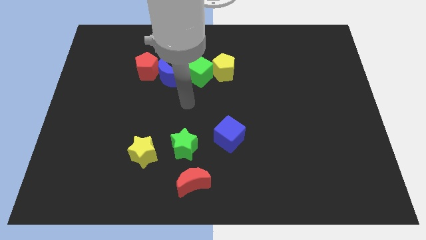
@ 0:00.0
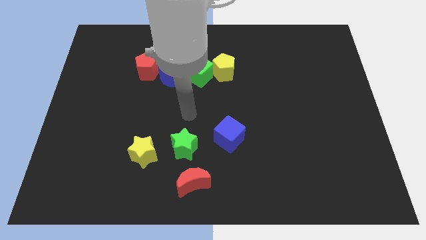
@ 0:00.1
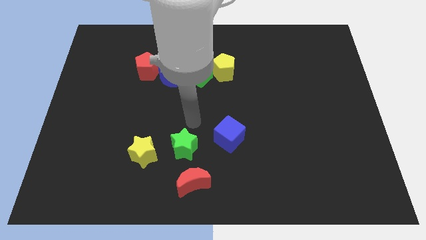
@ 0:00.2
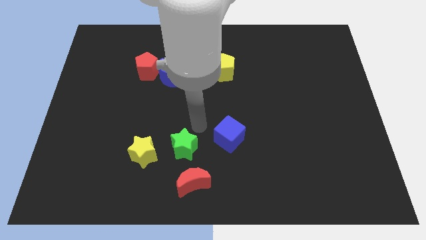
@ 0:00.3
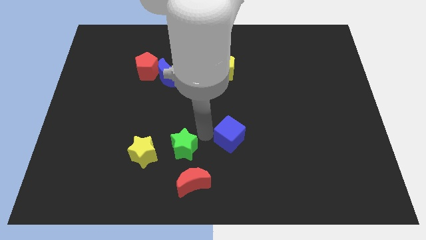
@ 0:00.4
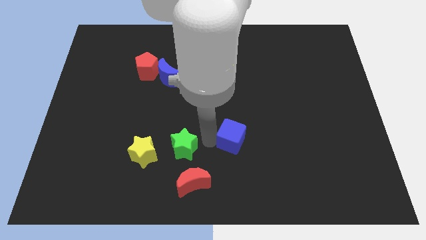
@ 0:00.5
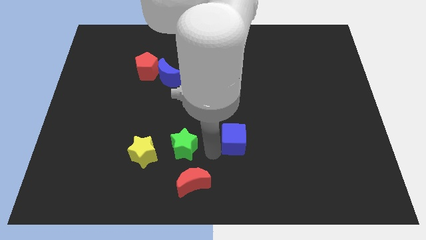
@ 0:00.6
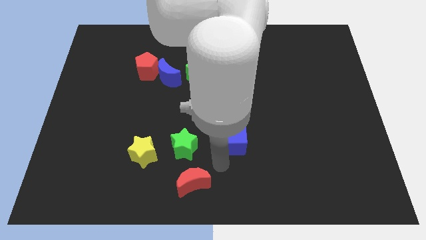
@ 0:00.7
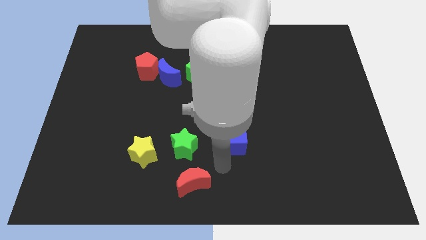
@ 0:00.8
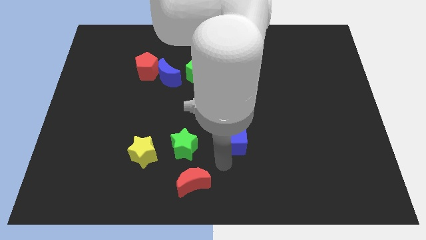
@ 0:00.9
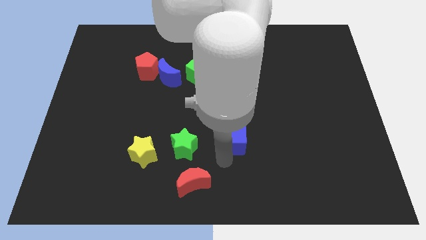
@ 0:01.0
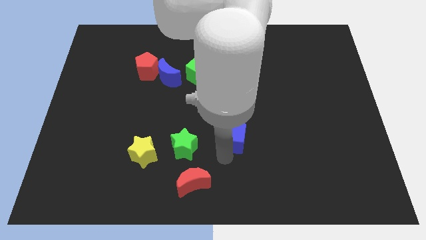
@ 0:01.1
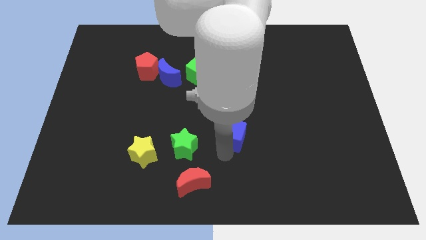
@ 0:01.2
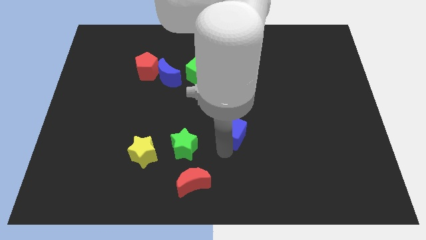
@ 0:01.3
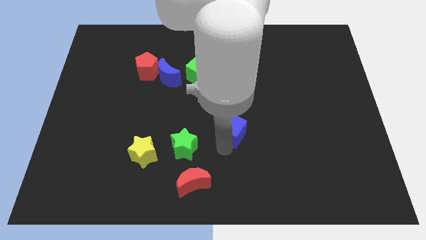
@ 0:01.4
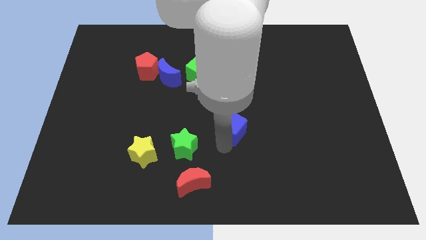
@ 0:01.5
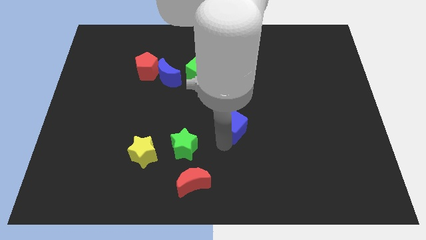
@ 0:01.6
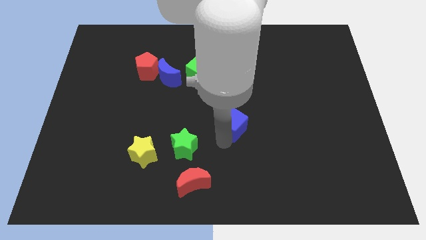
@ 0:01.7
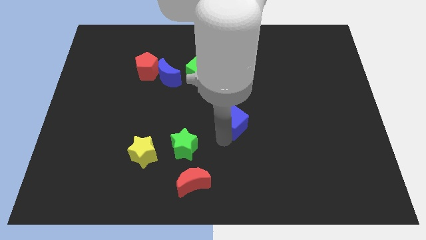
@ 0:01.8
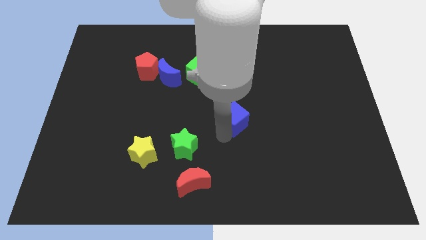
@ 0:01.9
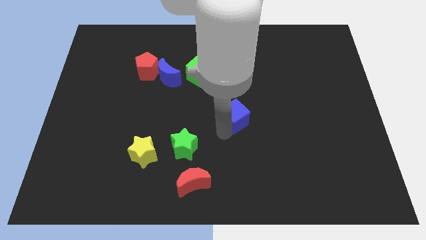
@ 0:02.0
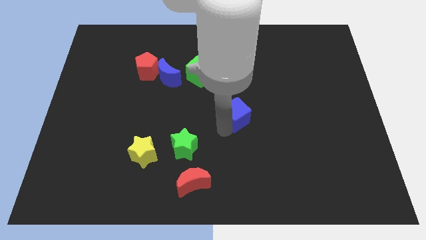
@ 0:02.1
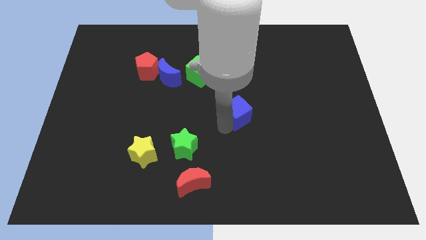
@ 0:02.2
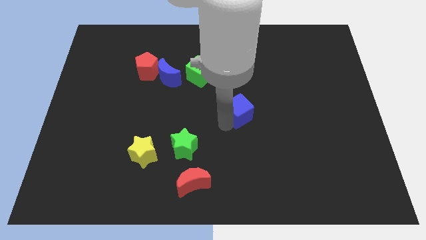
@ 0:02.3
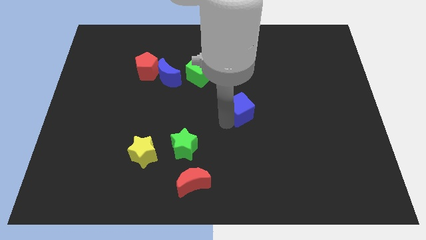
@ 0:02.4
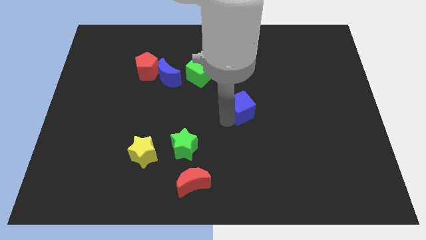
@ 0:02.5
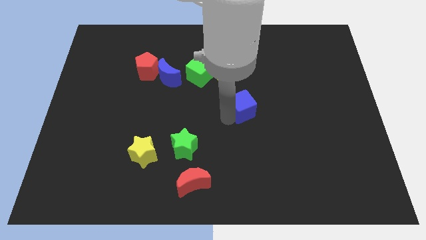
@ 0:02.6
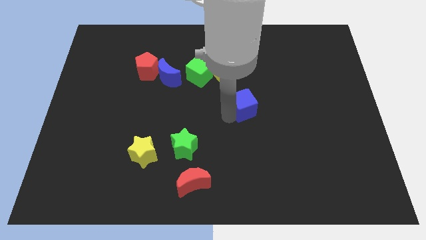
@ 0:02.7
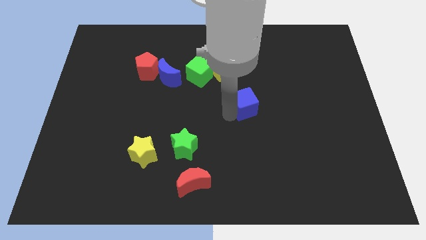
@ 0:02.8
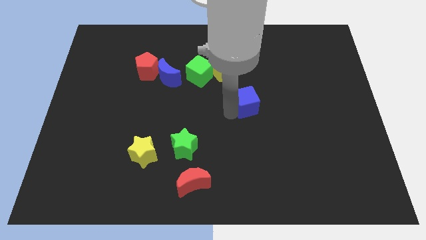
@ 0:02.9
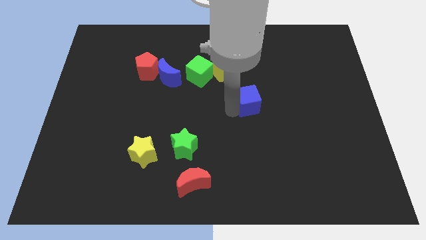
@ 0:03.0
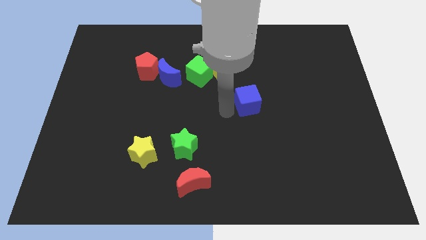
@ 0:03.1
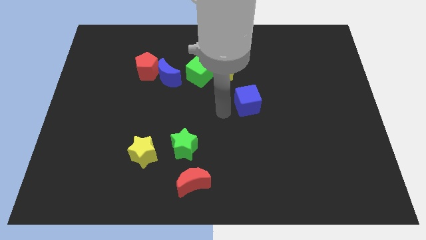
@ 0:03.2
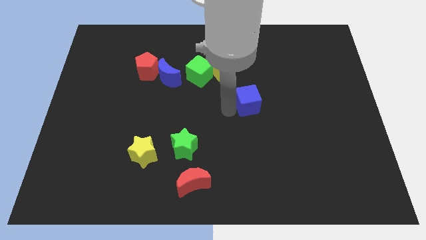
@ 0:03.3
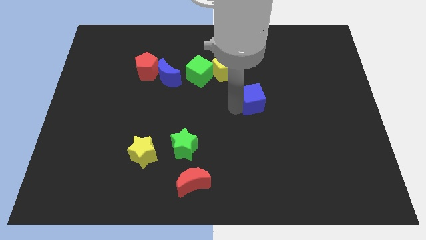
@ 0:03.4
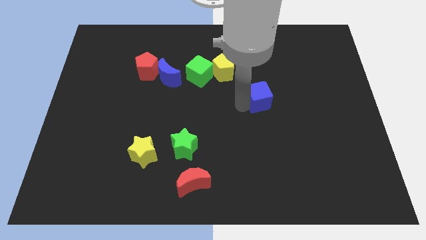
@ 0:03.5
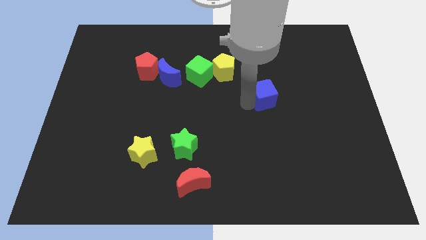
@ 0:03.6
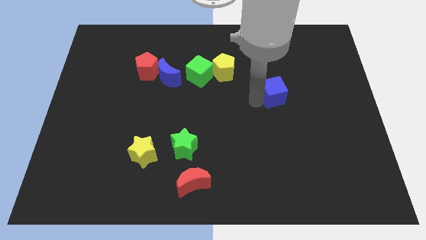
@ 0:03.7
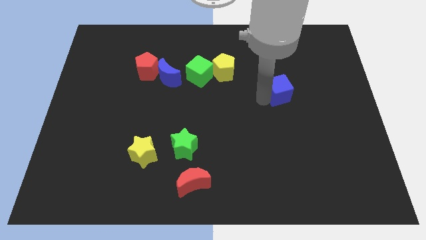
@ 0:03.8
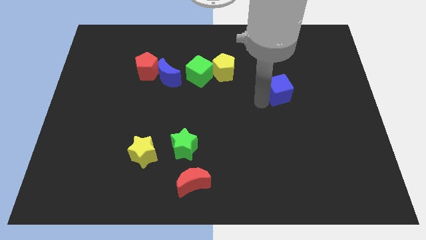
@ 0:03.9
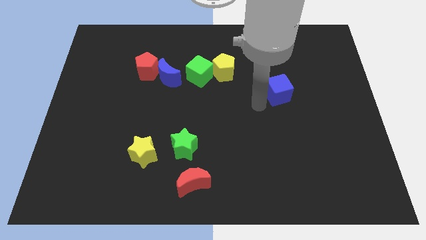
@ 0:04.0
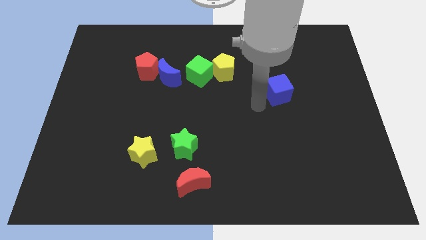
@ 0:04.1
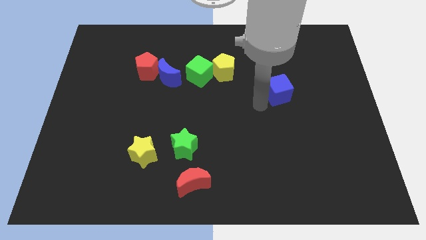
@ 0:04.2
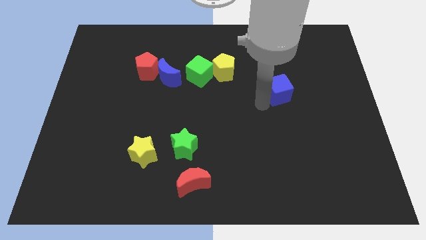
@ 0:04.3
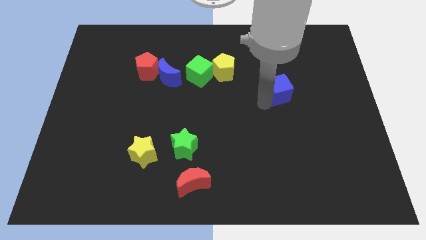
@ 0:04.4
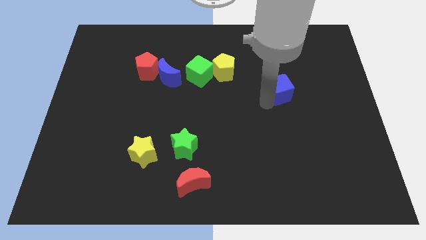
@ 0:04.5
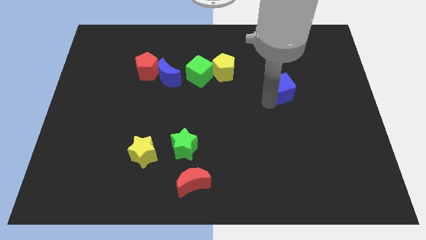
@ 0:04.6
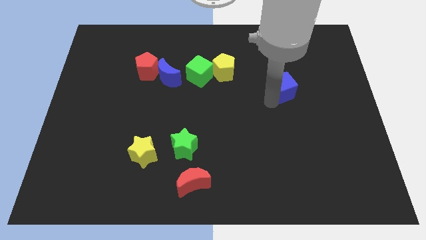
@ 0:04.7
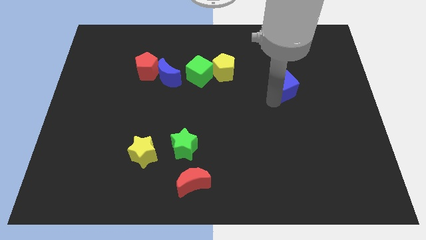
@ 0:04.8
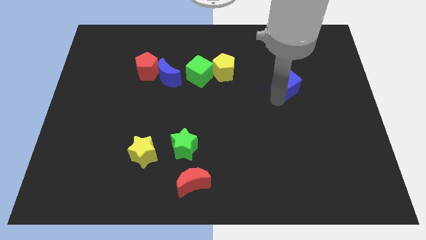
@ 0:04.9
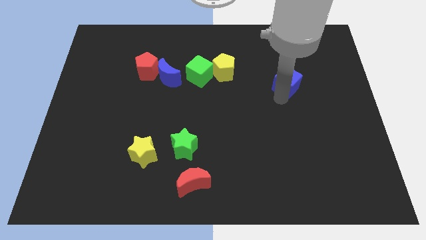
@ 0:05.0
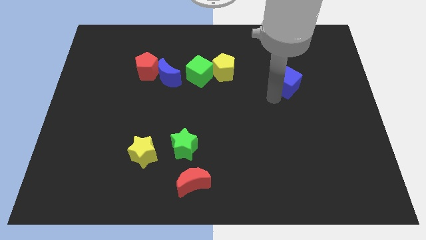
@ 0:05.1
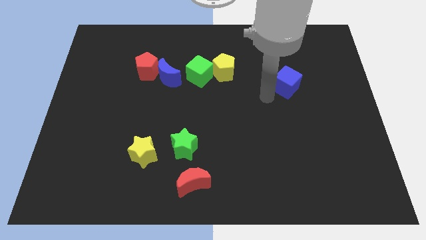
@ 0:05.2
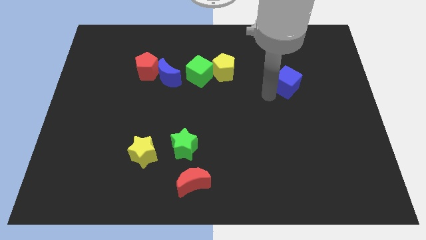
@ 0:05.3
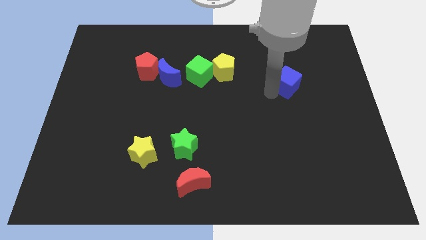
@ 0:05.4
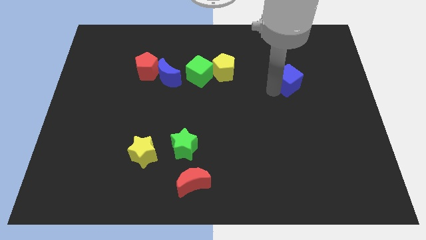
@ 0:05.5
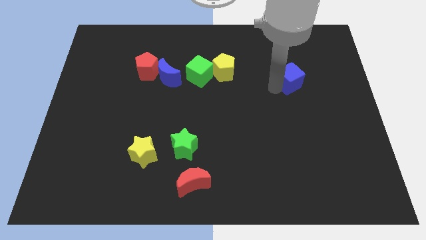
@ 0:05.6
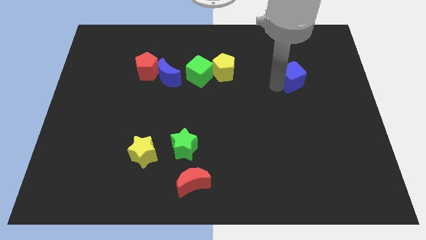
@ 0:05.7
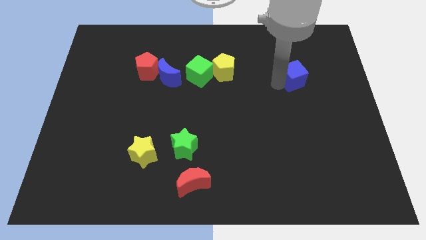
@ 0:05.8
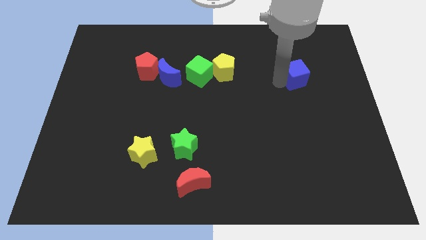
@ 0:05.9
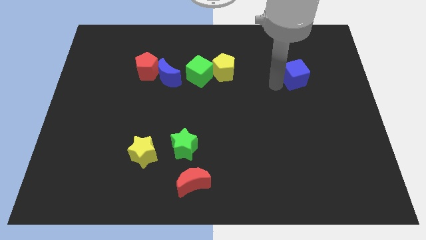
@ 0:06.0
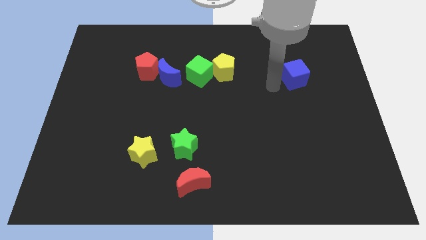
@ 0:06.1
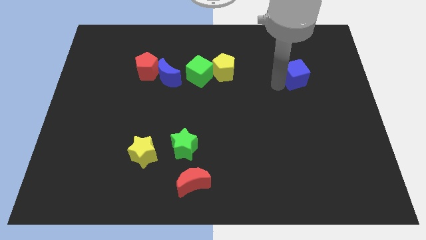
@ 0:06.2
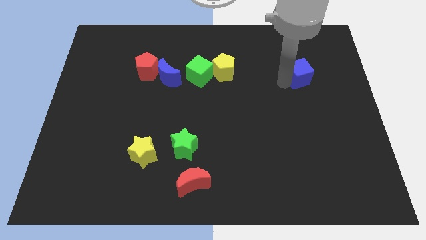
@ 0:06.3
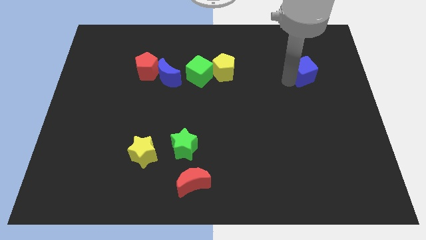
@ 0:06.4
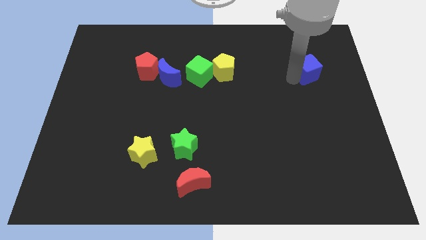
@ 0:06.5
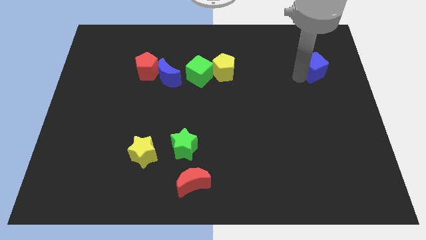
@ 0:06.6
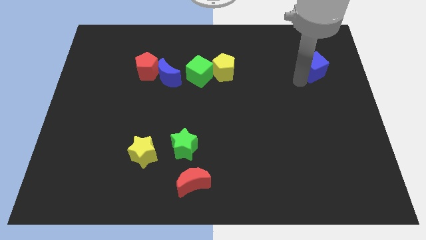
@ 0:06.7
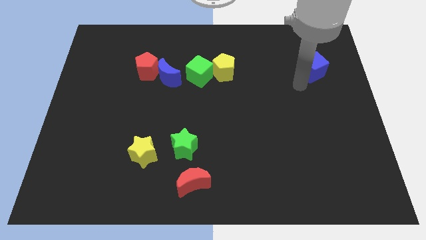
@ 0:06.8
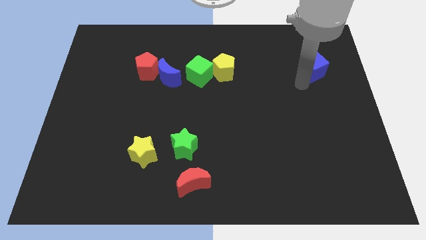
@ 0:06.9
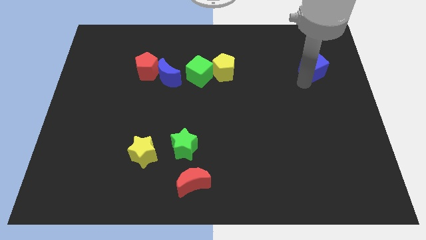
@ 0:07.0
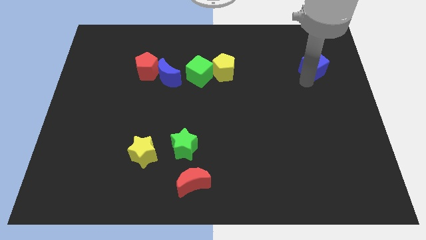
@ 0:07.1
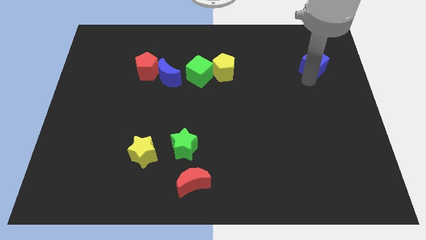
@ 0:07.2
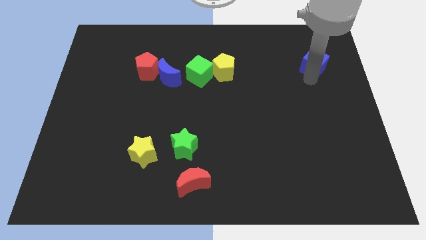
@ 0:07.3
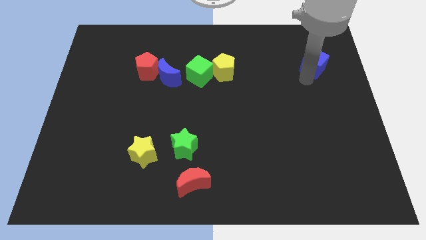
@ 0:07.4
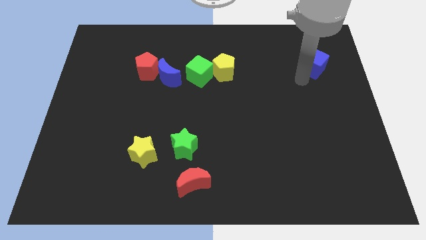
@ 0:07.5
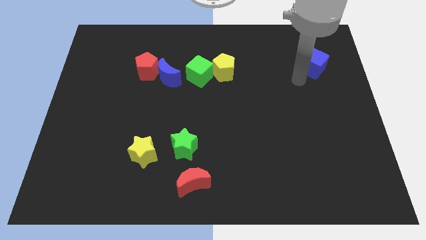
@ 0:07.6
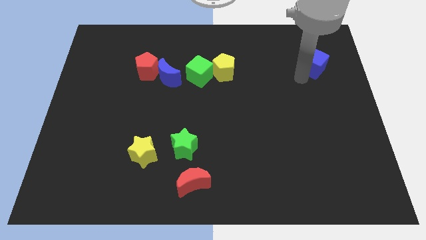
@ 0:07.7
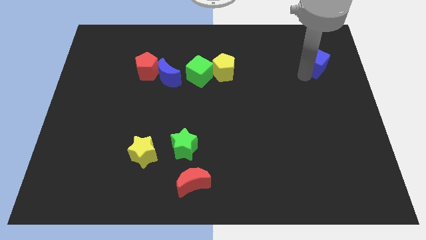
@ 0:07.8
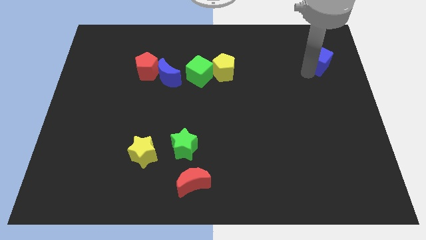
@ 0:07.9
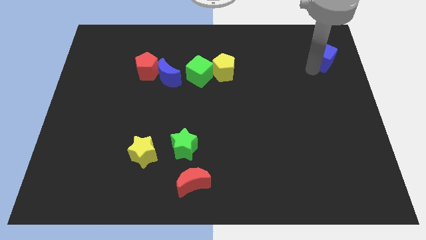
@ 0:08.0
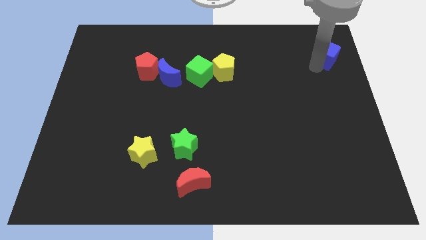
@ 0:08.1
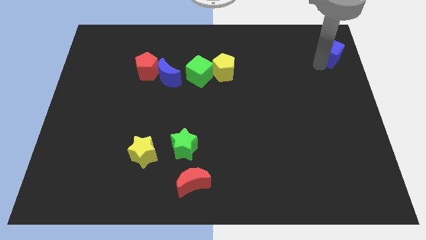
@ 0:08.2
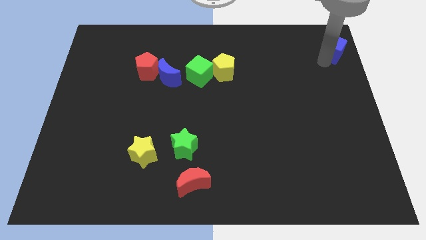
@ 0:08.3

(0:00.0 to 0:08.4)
move the blue cube to the top right of the board
